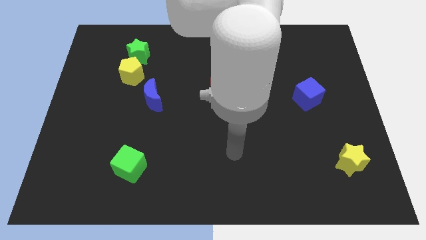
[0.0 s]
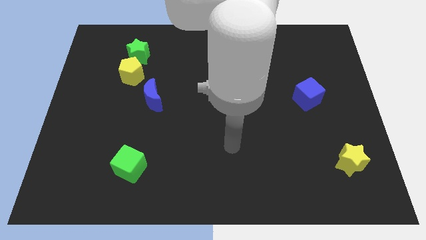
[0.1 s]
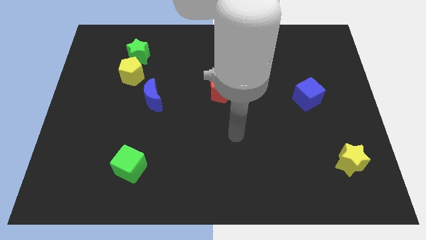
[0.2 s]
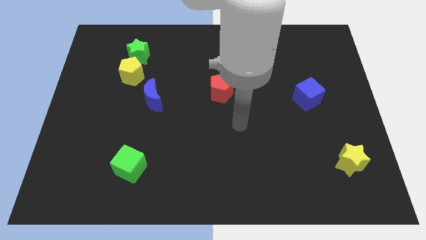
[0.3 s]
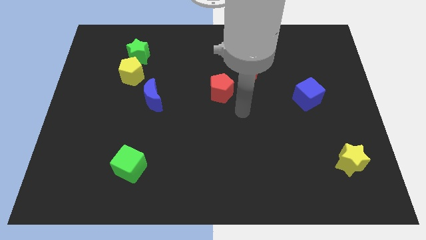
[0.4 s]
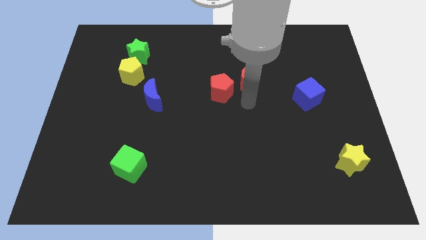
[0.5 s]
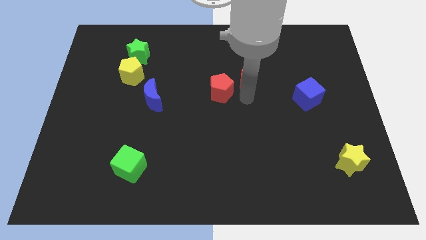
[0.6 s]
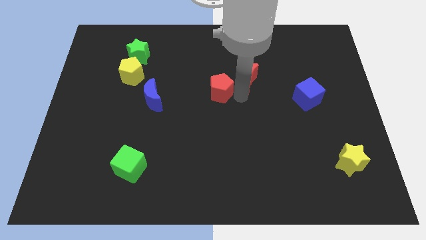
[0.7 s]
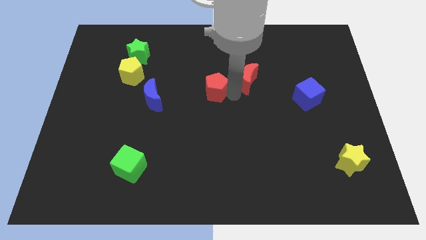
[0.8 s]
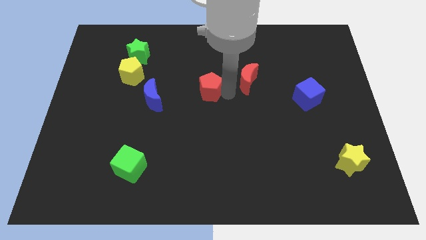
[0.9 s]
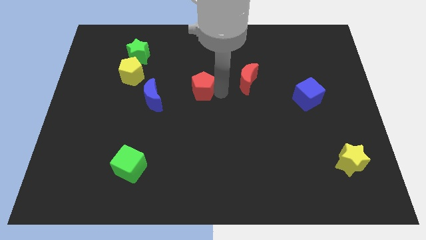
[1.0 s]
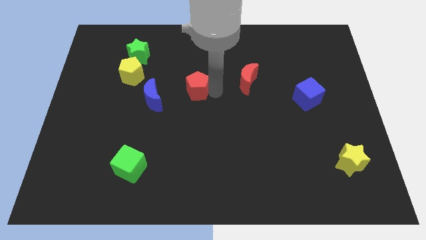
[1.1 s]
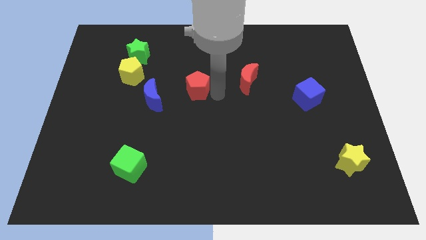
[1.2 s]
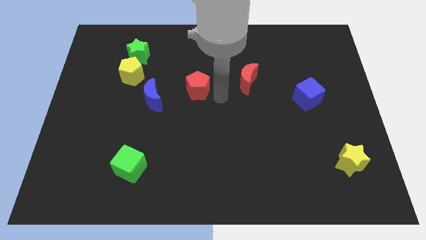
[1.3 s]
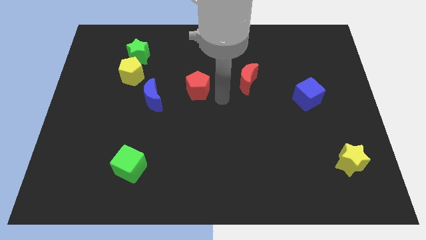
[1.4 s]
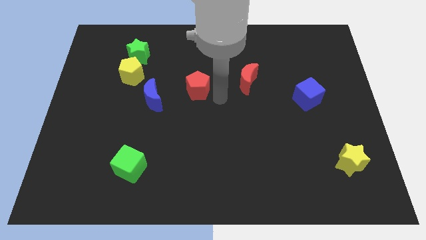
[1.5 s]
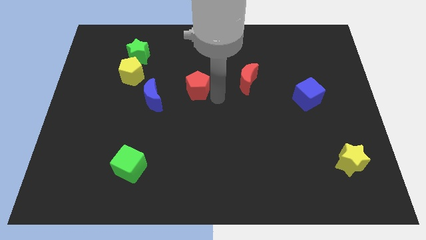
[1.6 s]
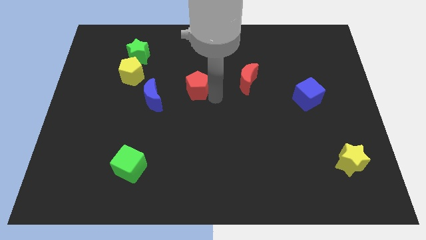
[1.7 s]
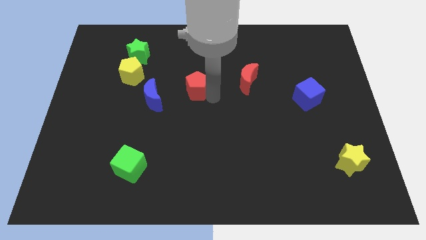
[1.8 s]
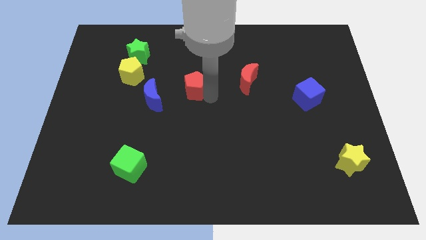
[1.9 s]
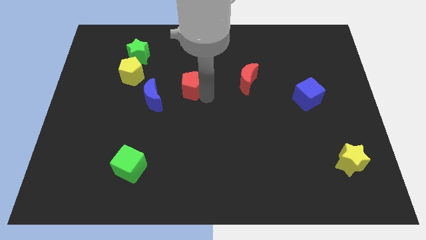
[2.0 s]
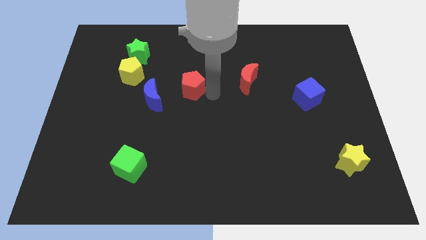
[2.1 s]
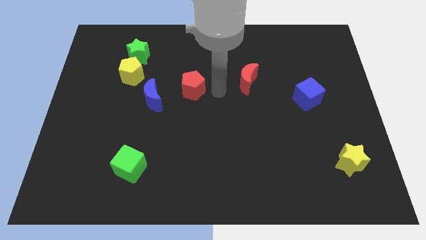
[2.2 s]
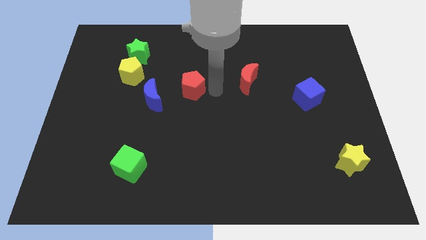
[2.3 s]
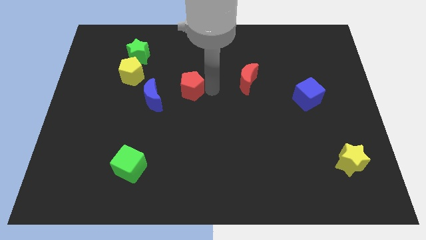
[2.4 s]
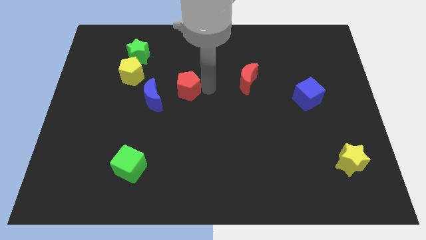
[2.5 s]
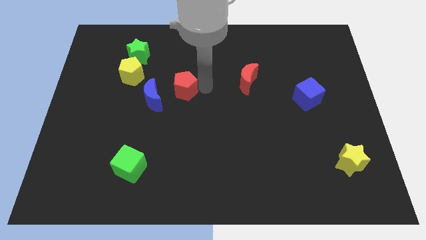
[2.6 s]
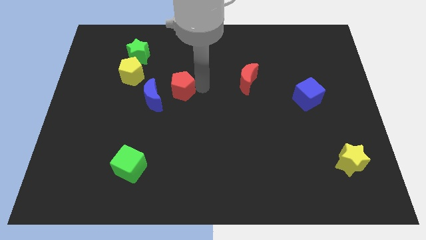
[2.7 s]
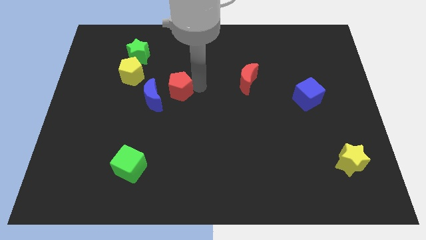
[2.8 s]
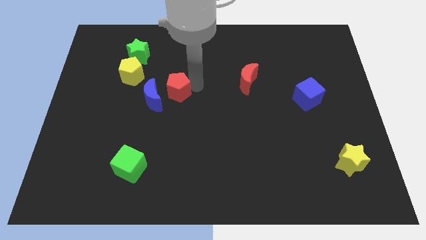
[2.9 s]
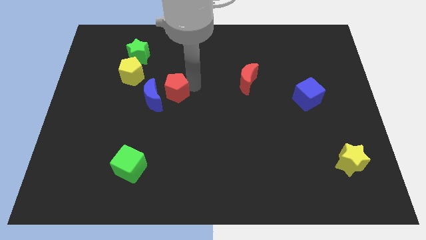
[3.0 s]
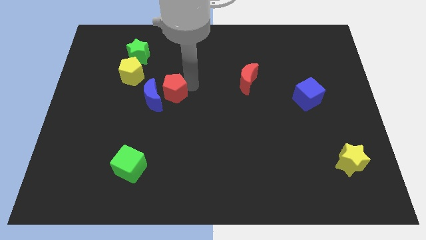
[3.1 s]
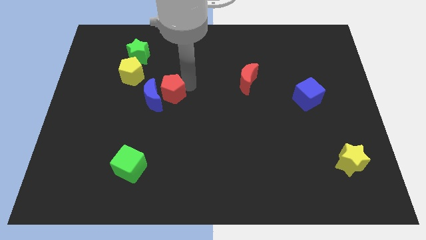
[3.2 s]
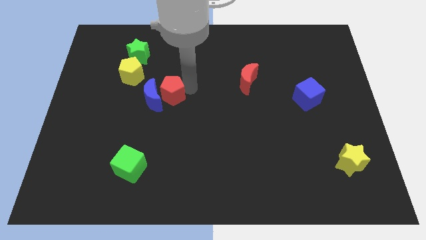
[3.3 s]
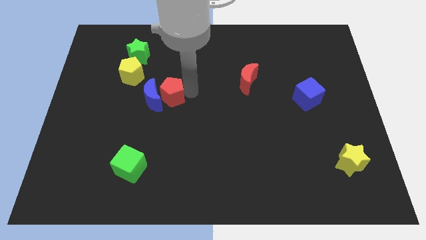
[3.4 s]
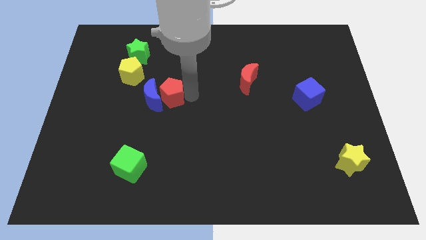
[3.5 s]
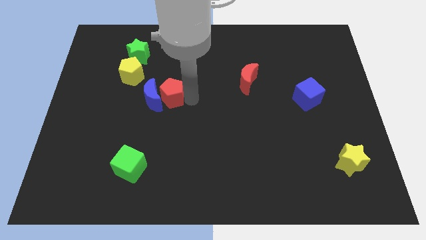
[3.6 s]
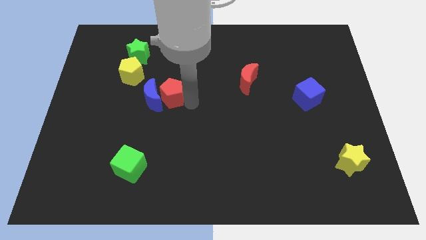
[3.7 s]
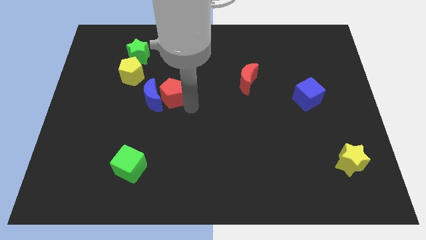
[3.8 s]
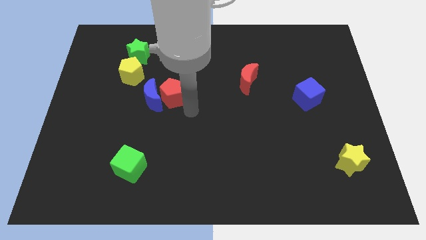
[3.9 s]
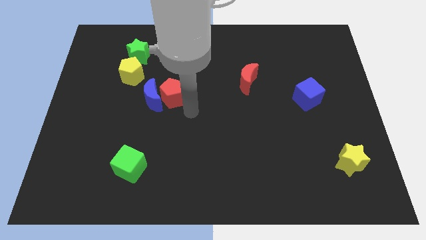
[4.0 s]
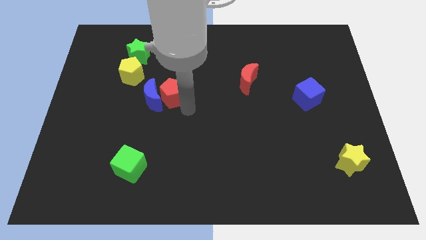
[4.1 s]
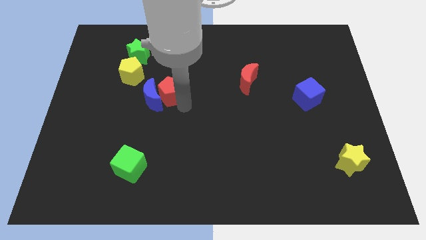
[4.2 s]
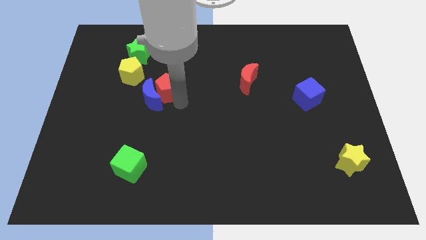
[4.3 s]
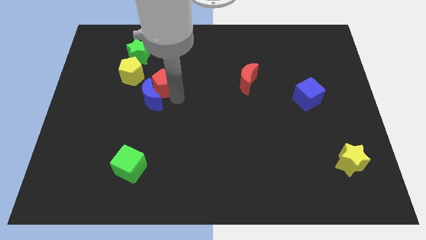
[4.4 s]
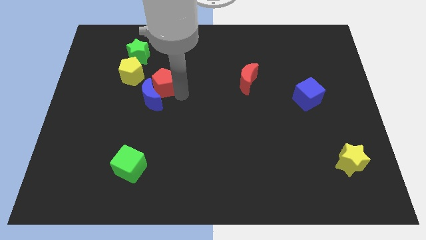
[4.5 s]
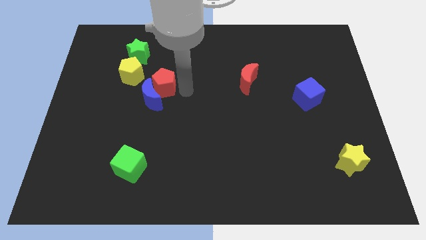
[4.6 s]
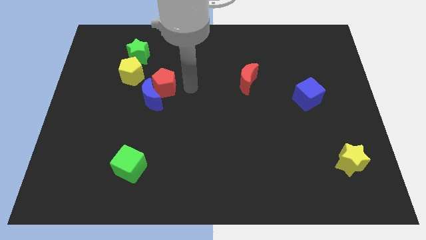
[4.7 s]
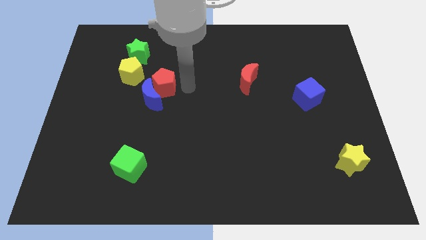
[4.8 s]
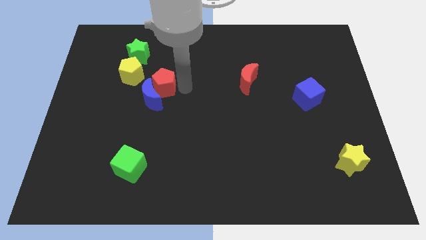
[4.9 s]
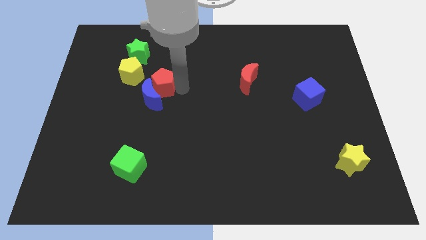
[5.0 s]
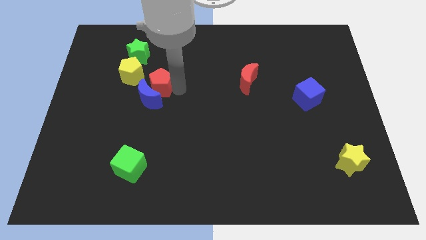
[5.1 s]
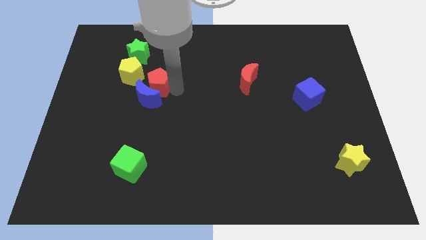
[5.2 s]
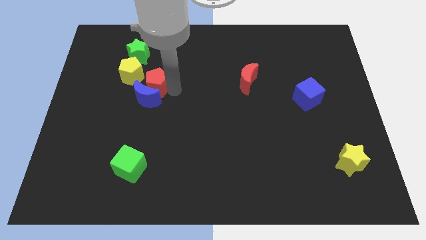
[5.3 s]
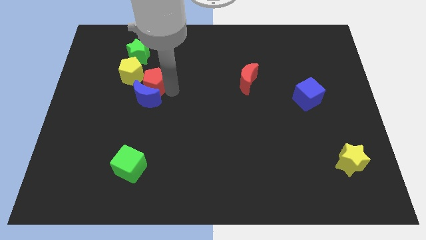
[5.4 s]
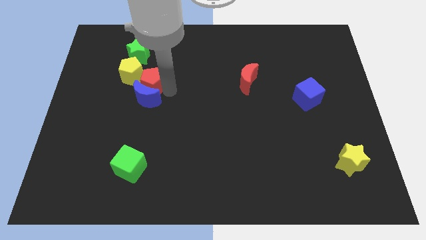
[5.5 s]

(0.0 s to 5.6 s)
put the red pentagon below the green star

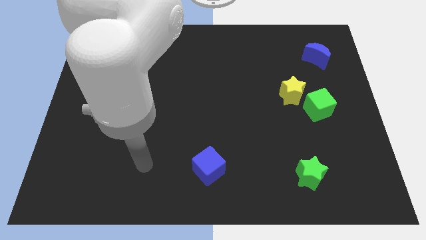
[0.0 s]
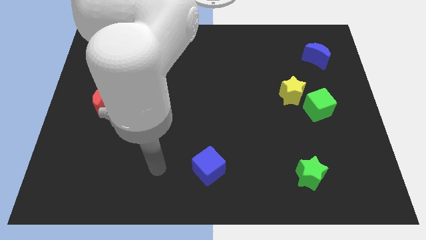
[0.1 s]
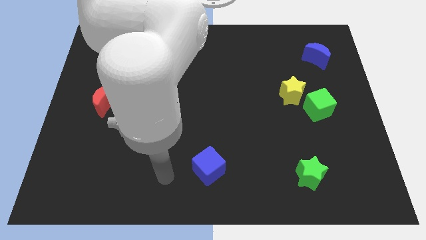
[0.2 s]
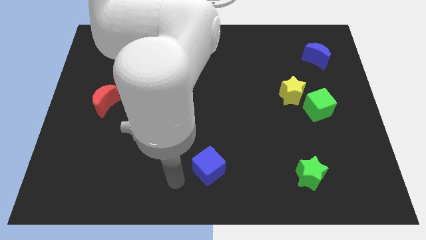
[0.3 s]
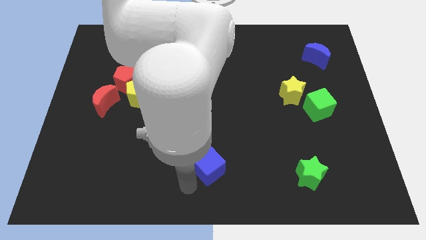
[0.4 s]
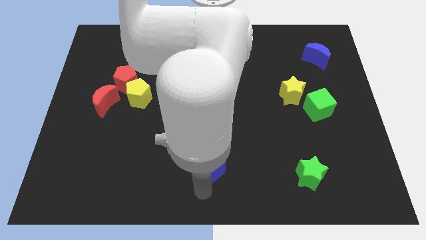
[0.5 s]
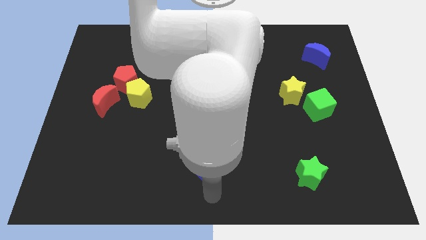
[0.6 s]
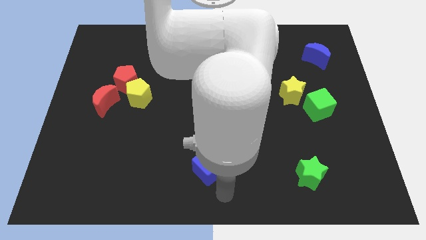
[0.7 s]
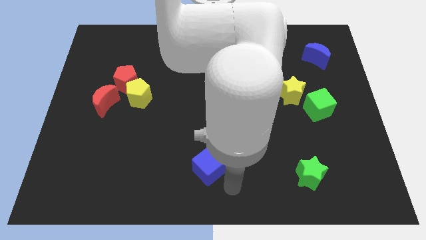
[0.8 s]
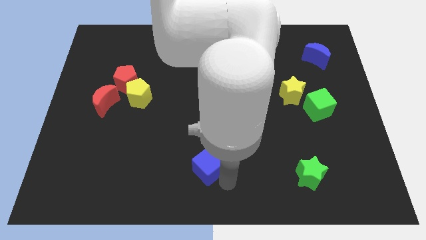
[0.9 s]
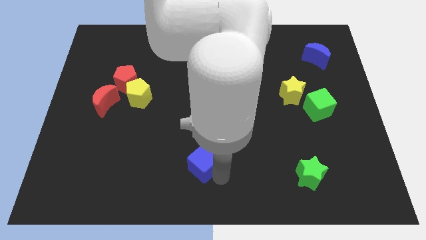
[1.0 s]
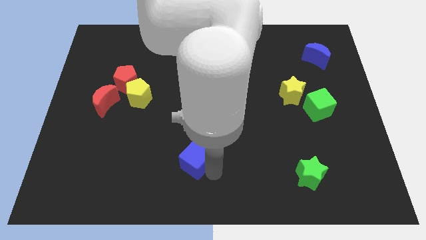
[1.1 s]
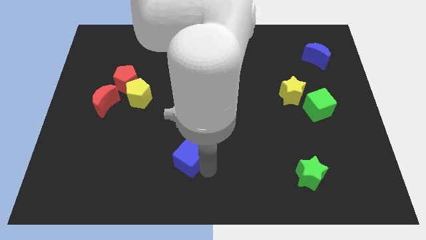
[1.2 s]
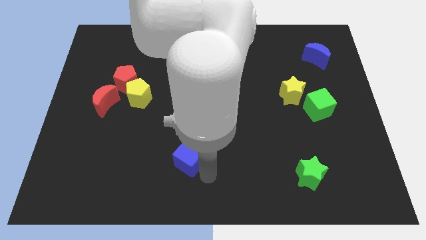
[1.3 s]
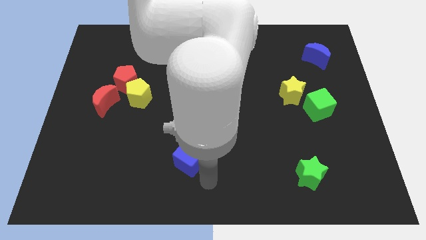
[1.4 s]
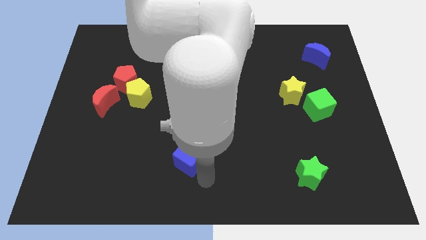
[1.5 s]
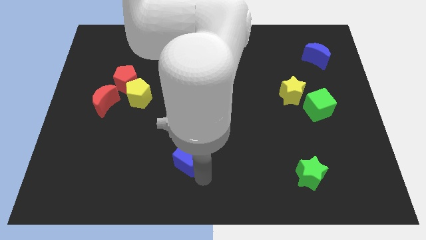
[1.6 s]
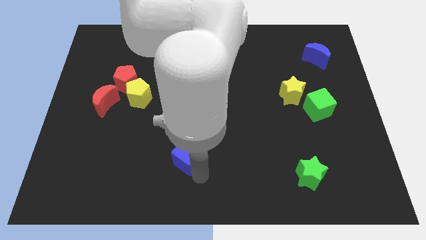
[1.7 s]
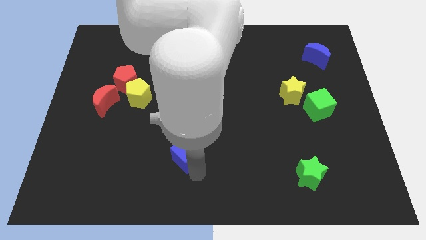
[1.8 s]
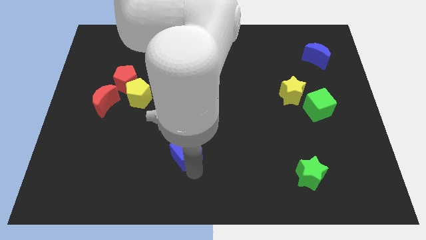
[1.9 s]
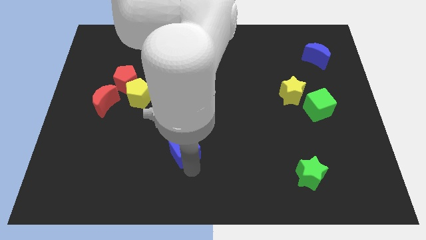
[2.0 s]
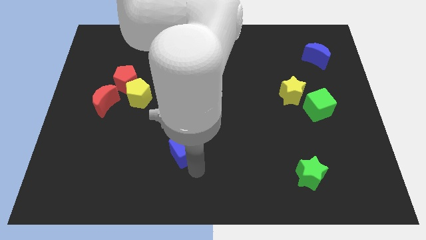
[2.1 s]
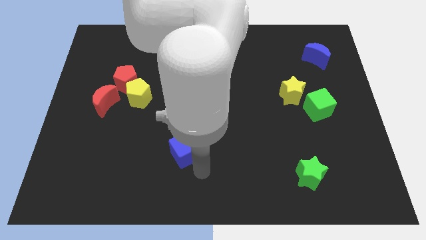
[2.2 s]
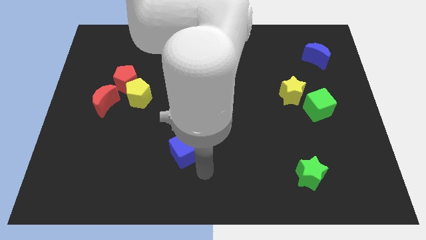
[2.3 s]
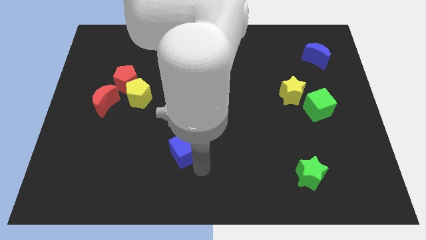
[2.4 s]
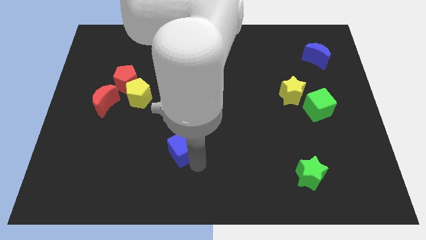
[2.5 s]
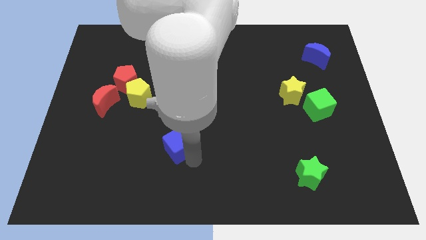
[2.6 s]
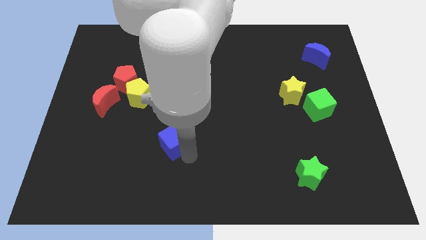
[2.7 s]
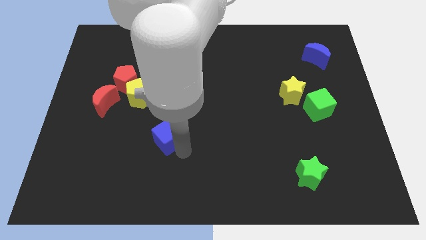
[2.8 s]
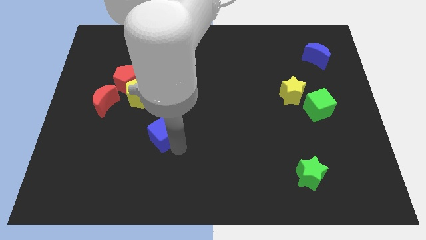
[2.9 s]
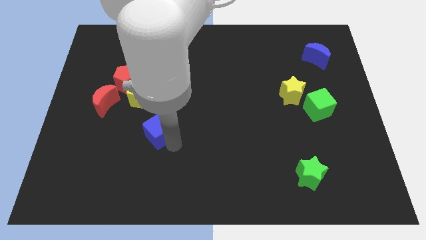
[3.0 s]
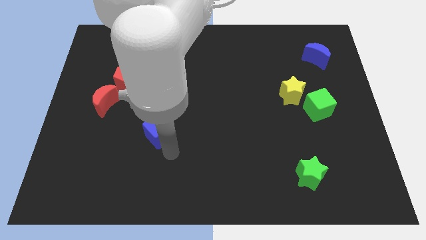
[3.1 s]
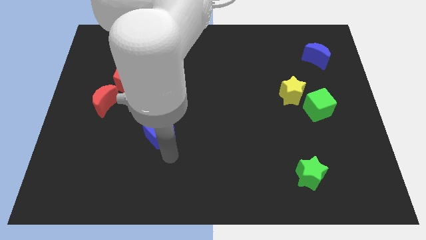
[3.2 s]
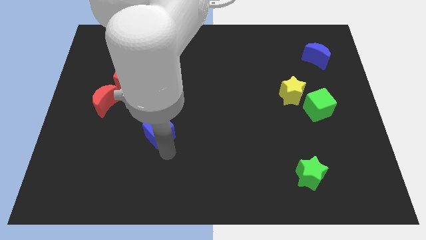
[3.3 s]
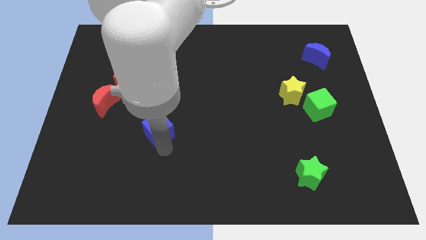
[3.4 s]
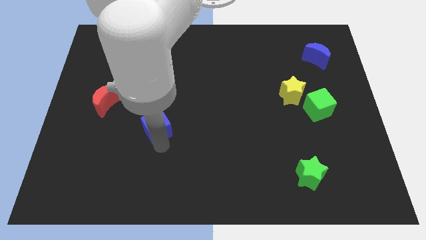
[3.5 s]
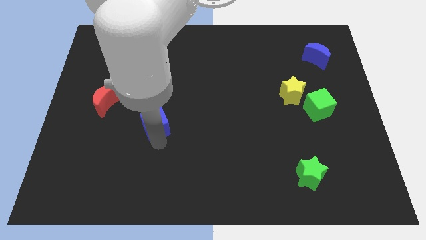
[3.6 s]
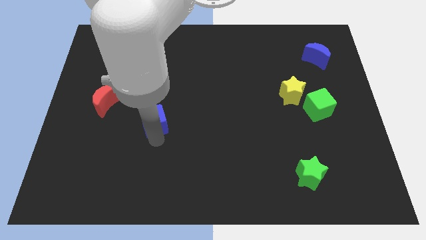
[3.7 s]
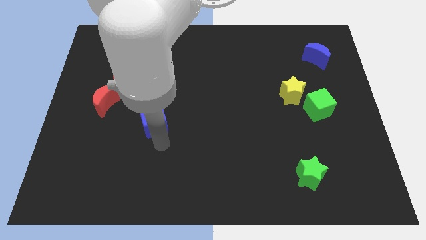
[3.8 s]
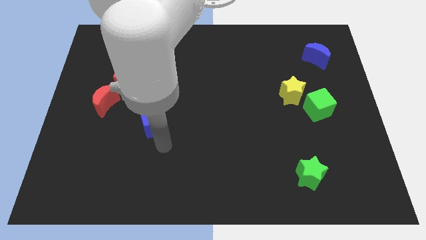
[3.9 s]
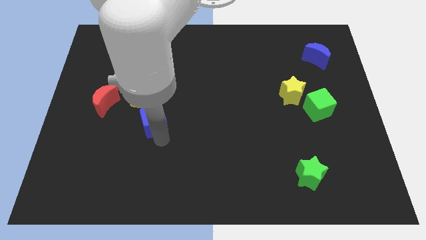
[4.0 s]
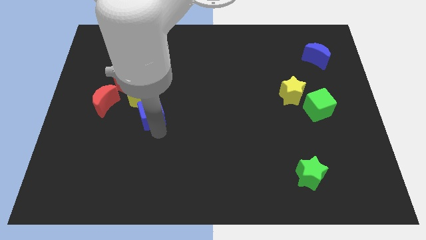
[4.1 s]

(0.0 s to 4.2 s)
move the blue cube diagonally down and to the right of the red pentagon
